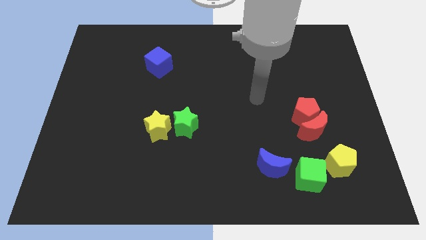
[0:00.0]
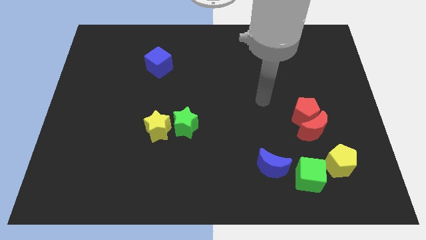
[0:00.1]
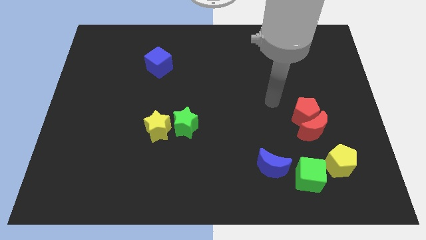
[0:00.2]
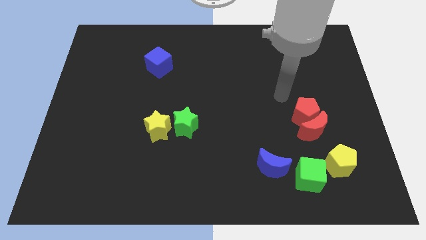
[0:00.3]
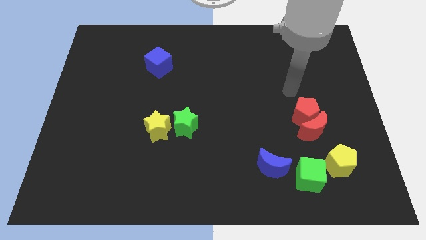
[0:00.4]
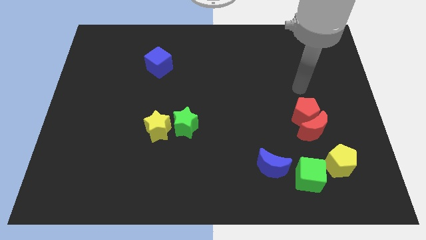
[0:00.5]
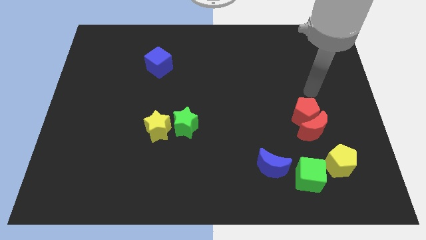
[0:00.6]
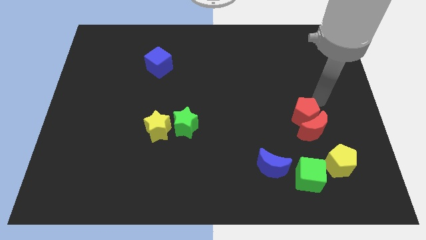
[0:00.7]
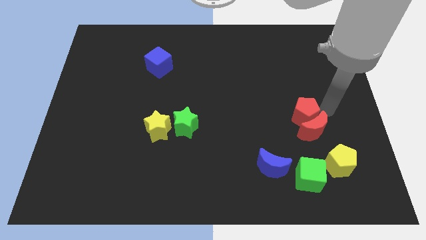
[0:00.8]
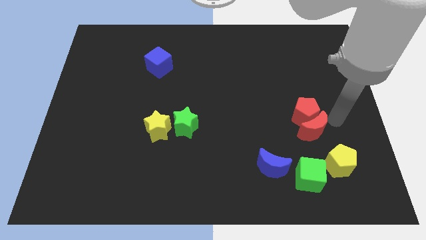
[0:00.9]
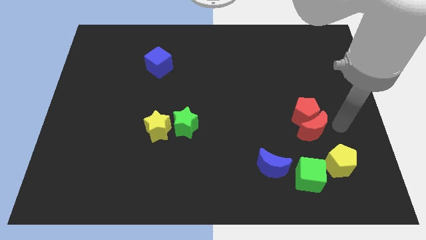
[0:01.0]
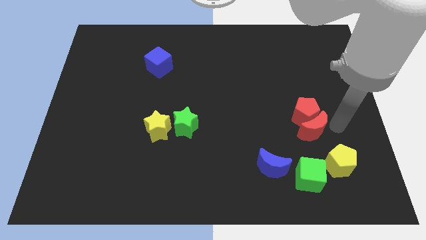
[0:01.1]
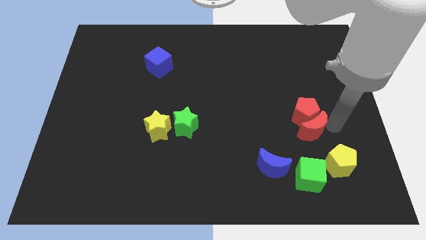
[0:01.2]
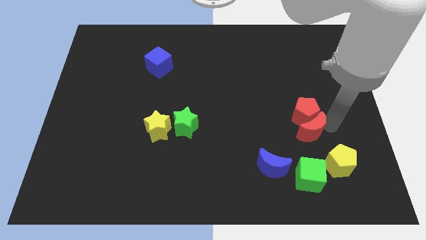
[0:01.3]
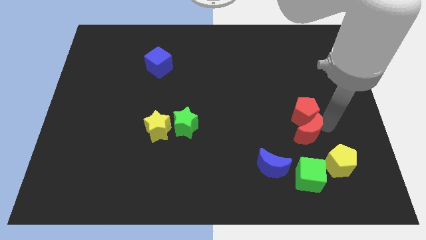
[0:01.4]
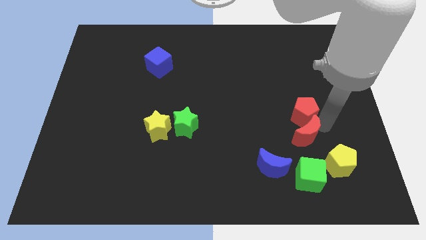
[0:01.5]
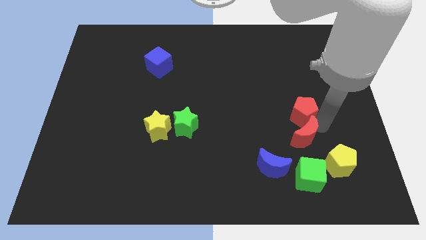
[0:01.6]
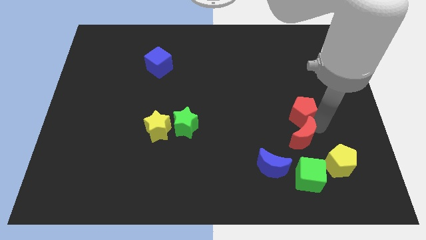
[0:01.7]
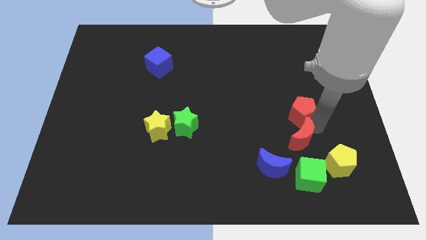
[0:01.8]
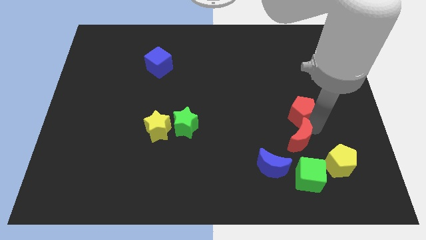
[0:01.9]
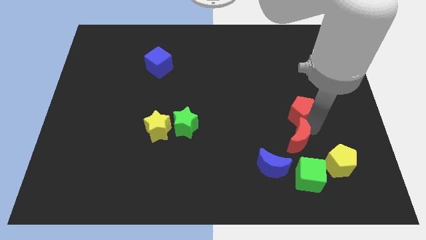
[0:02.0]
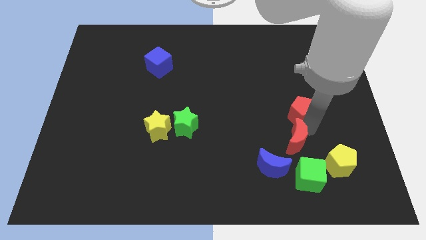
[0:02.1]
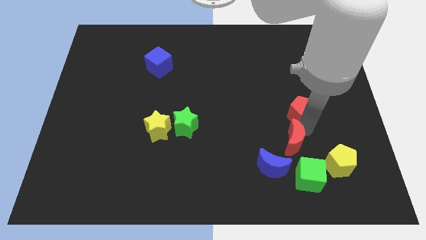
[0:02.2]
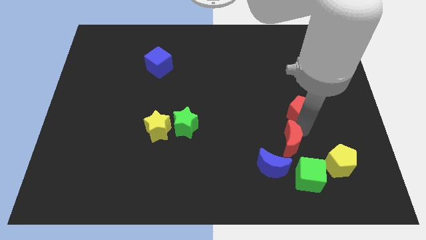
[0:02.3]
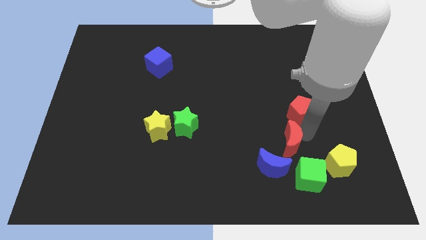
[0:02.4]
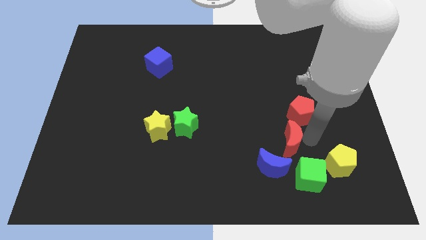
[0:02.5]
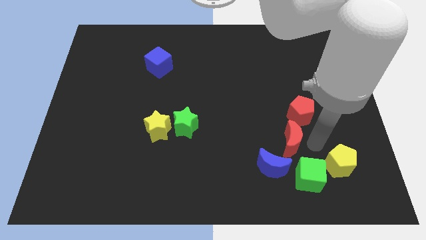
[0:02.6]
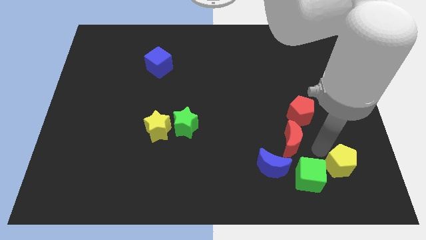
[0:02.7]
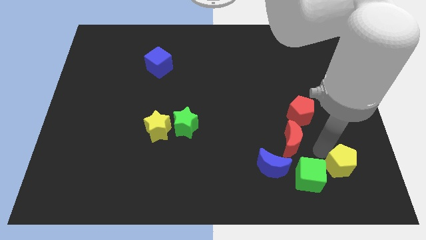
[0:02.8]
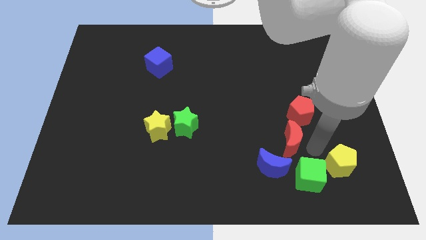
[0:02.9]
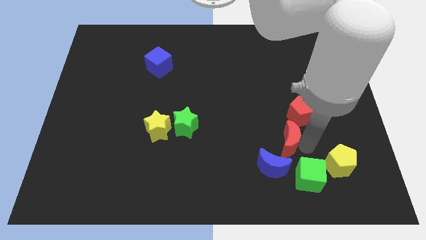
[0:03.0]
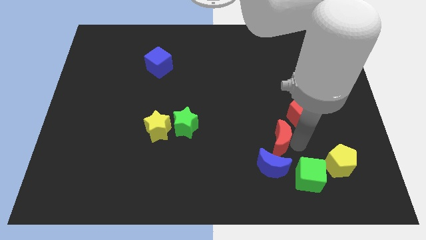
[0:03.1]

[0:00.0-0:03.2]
move the red moon left a little

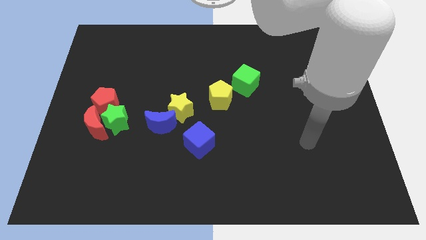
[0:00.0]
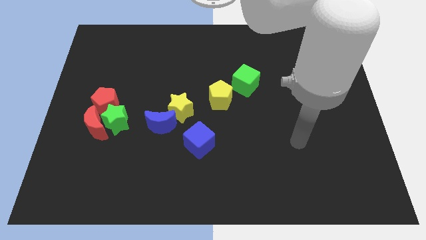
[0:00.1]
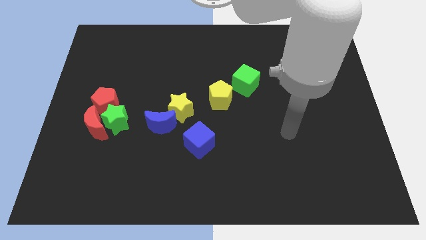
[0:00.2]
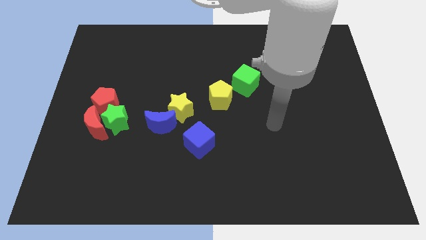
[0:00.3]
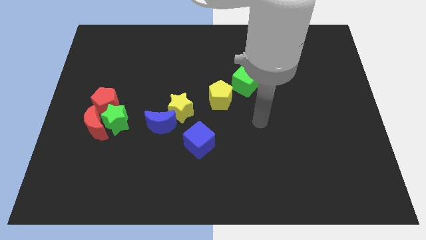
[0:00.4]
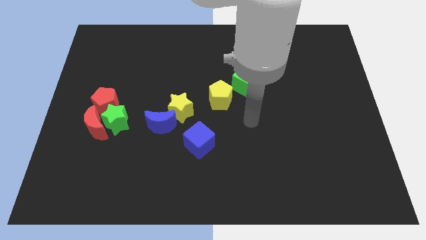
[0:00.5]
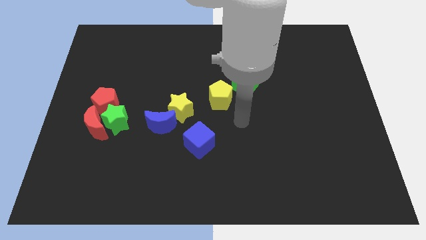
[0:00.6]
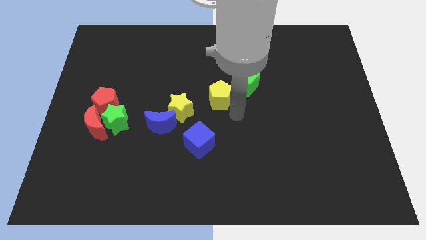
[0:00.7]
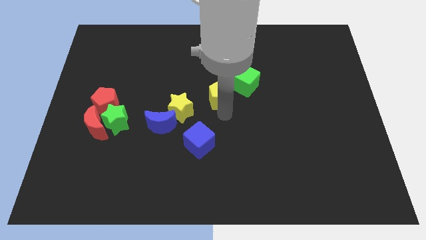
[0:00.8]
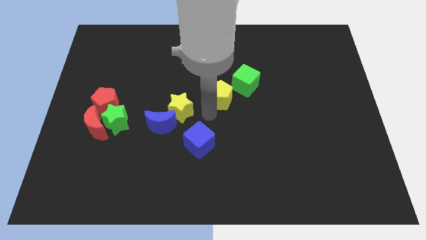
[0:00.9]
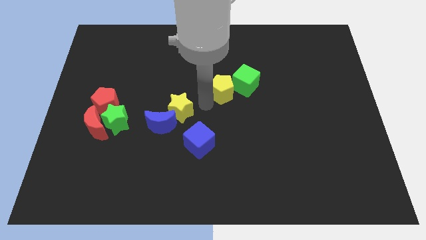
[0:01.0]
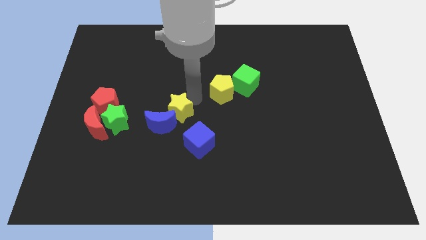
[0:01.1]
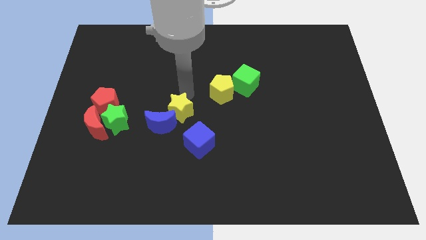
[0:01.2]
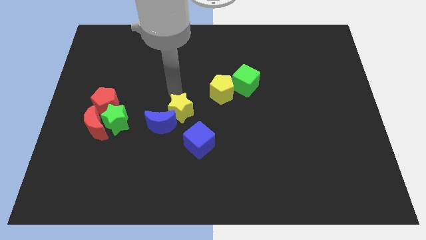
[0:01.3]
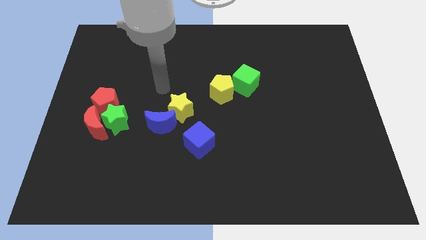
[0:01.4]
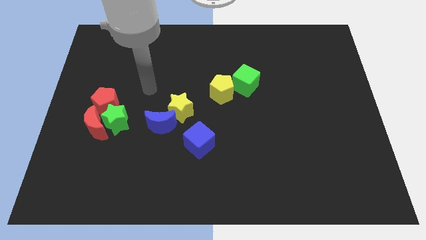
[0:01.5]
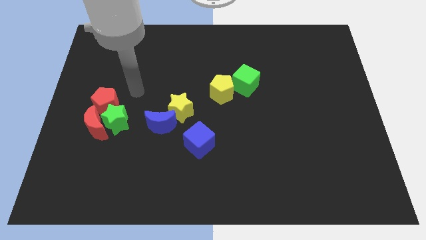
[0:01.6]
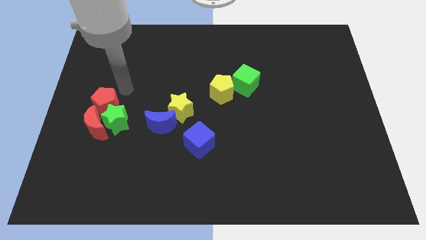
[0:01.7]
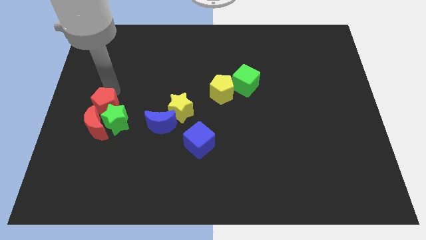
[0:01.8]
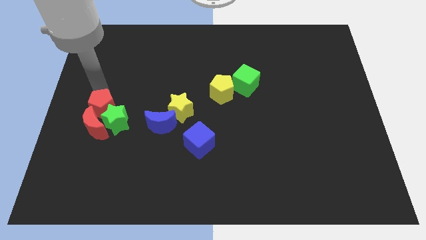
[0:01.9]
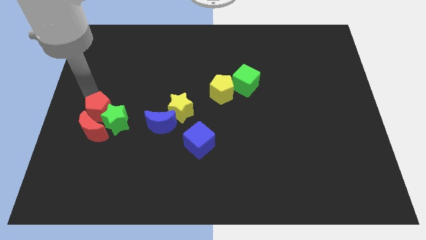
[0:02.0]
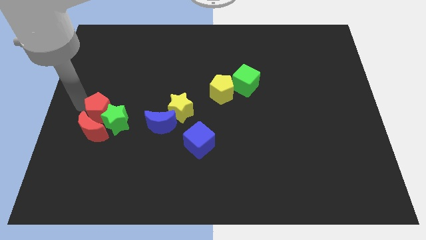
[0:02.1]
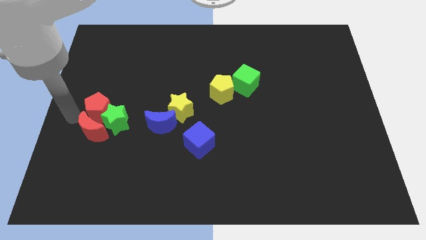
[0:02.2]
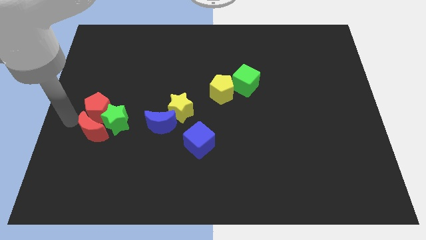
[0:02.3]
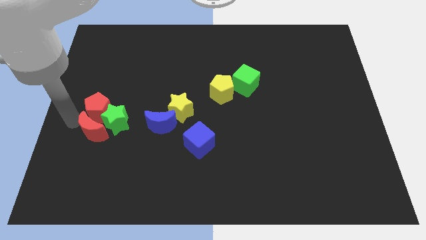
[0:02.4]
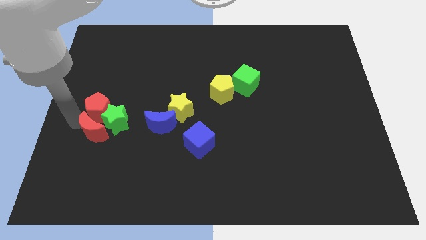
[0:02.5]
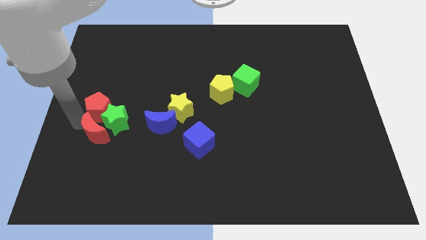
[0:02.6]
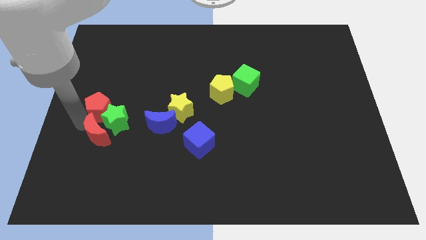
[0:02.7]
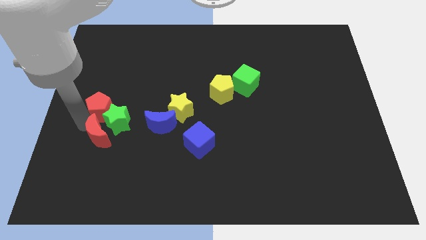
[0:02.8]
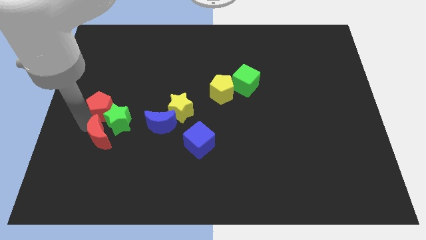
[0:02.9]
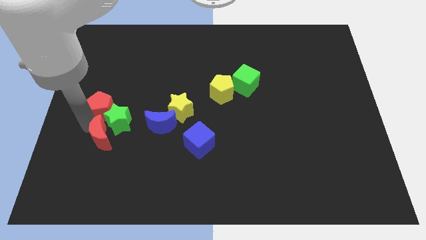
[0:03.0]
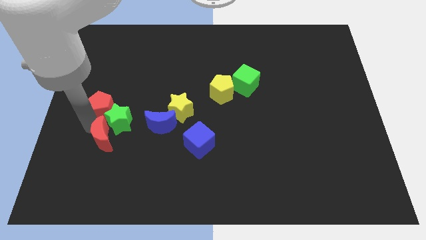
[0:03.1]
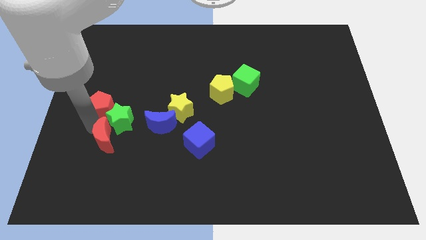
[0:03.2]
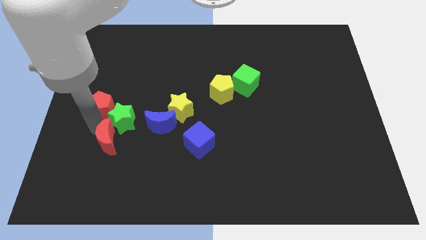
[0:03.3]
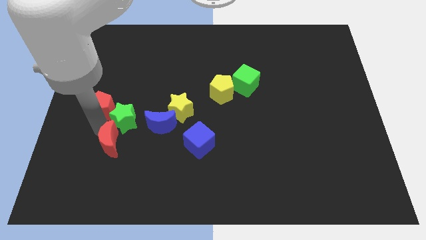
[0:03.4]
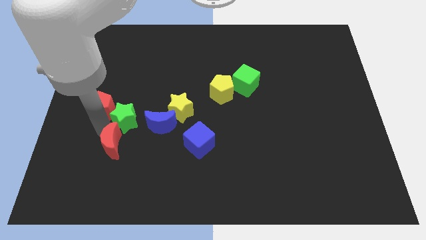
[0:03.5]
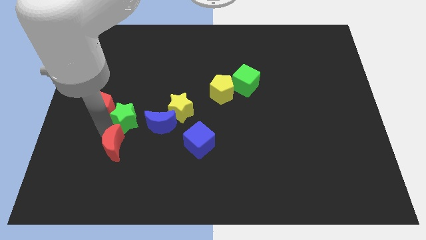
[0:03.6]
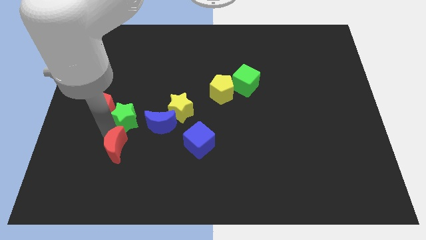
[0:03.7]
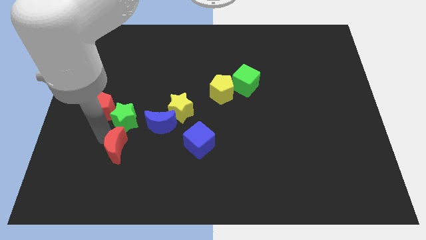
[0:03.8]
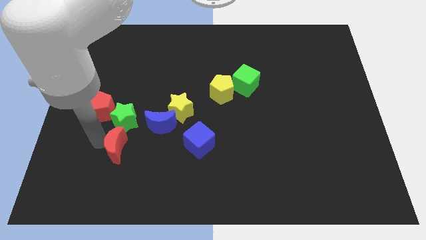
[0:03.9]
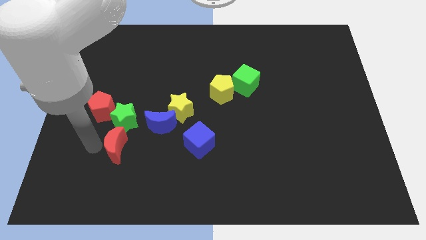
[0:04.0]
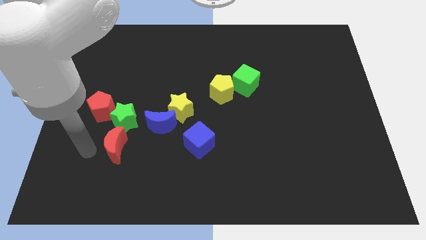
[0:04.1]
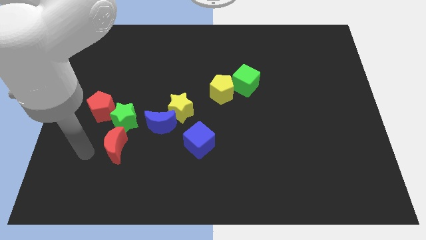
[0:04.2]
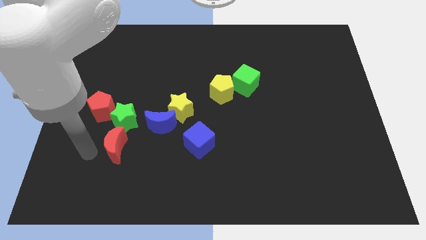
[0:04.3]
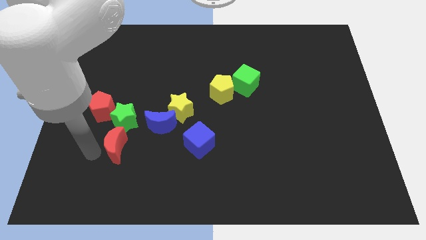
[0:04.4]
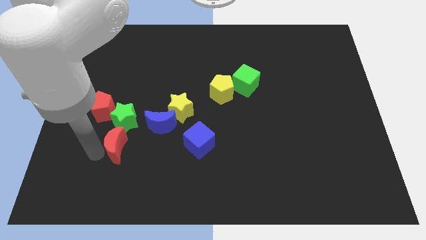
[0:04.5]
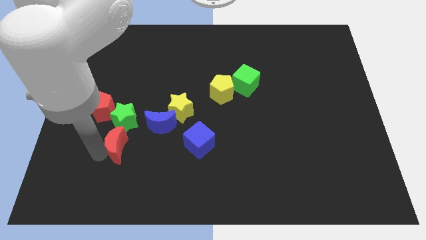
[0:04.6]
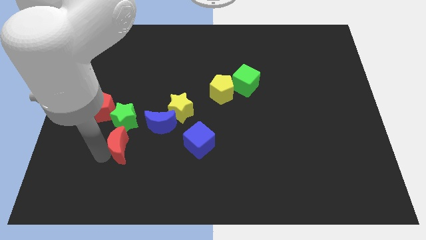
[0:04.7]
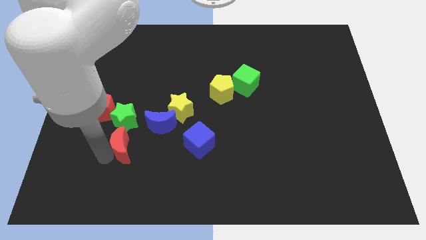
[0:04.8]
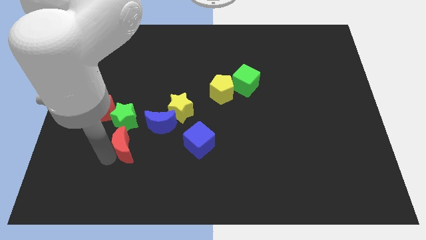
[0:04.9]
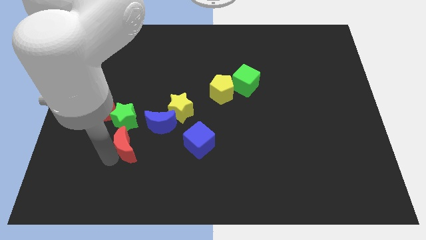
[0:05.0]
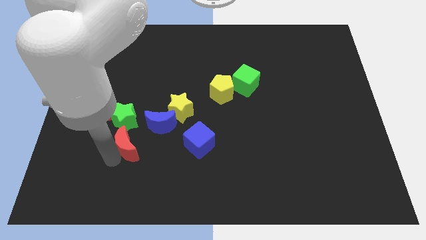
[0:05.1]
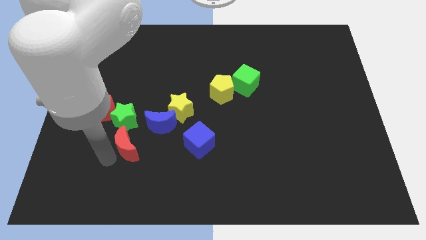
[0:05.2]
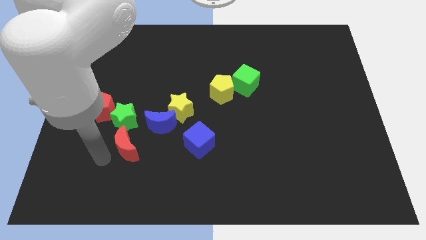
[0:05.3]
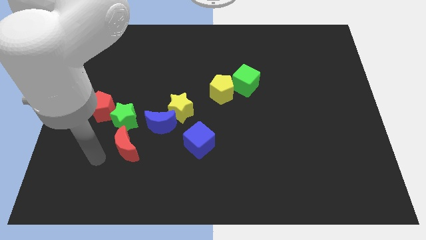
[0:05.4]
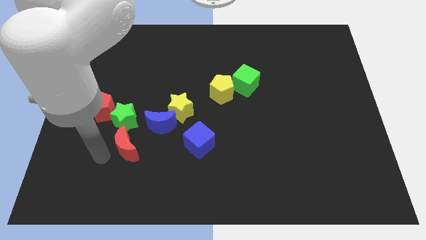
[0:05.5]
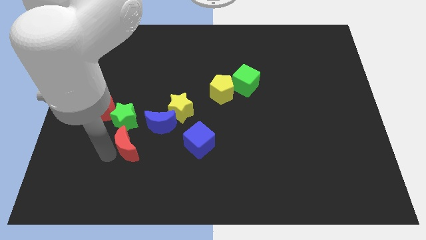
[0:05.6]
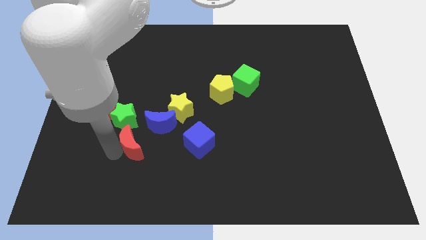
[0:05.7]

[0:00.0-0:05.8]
push the red moon slightly right
